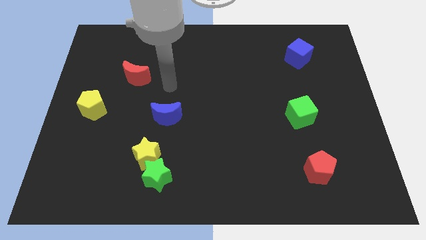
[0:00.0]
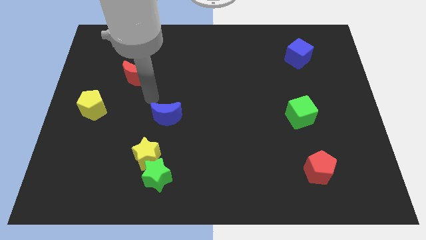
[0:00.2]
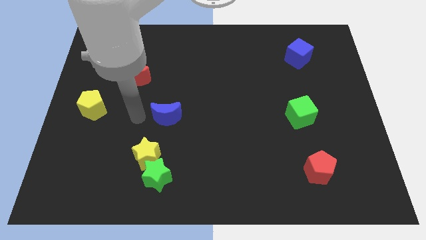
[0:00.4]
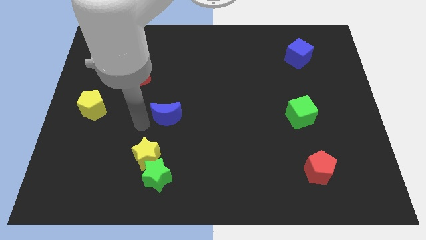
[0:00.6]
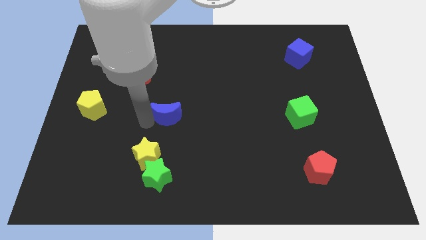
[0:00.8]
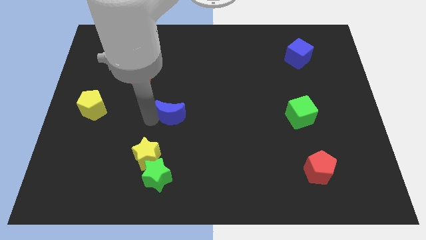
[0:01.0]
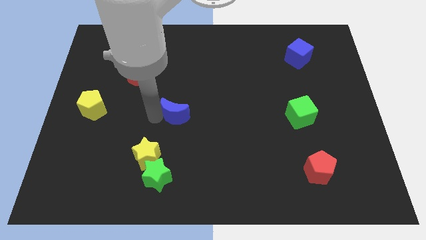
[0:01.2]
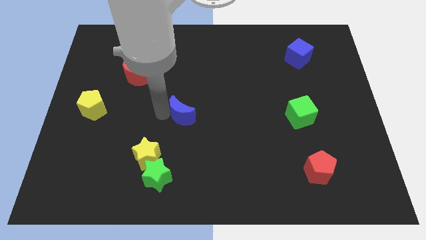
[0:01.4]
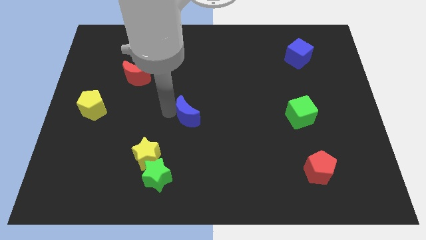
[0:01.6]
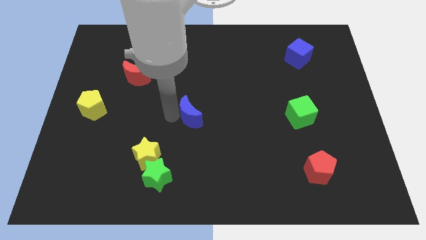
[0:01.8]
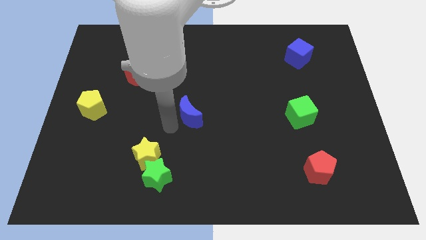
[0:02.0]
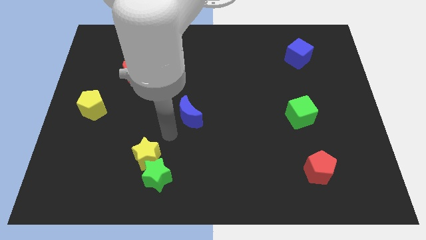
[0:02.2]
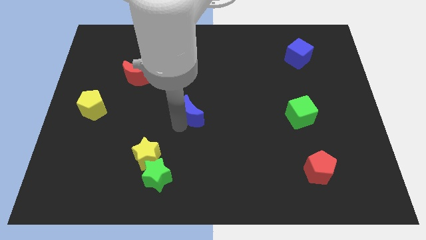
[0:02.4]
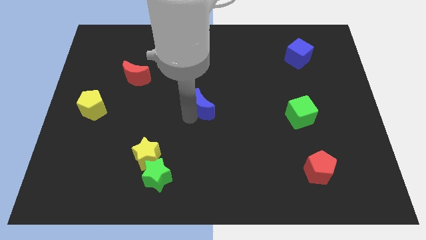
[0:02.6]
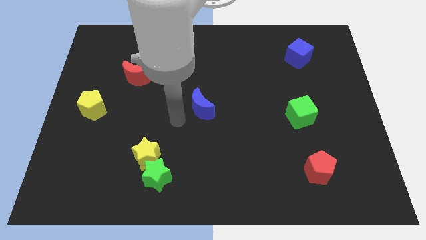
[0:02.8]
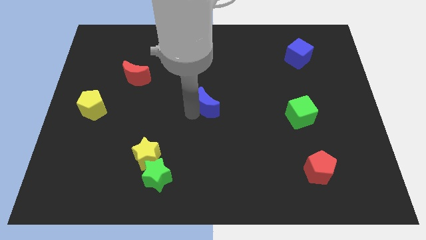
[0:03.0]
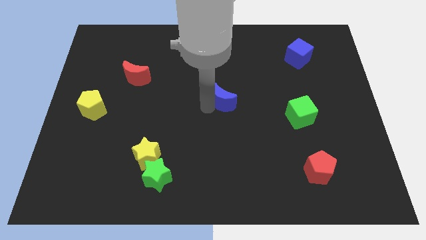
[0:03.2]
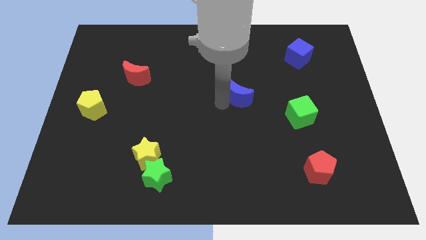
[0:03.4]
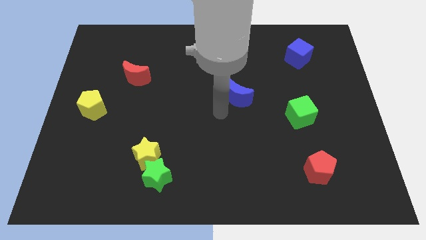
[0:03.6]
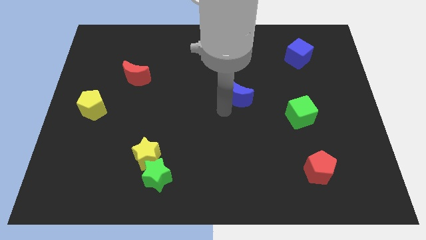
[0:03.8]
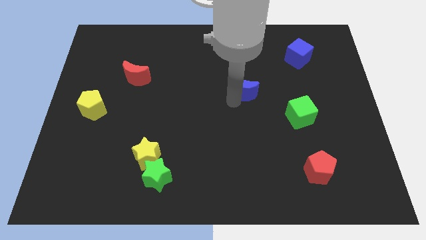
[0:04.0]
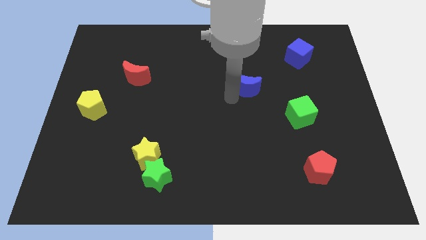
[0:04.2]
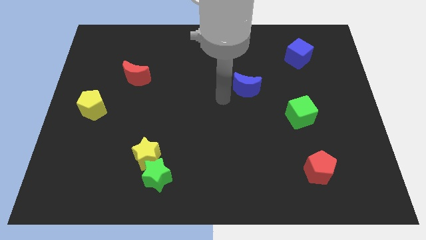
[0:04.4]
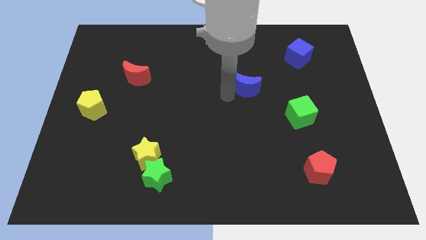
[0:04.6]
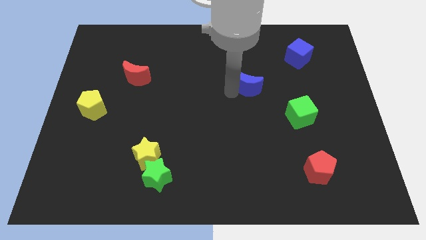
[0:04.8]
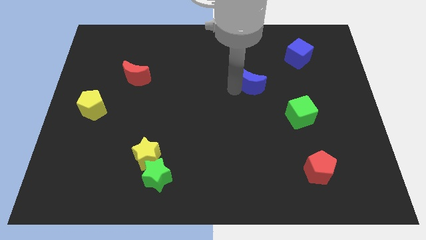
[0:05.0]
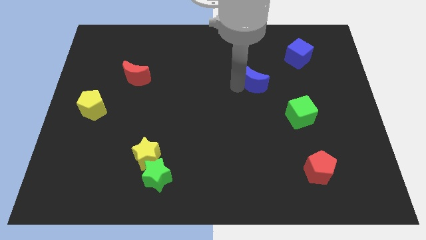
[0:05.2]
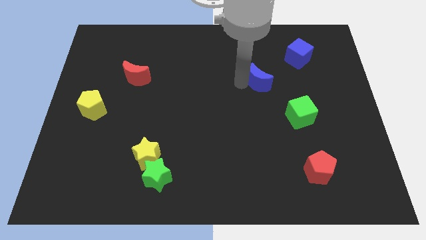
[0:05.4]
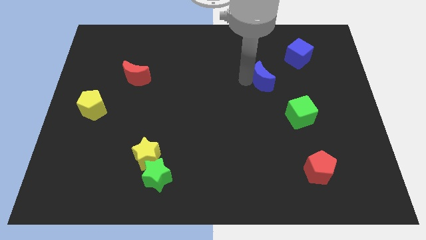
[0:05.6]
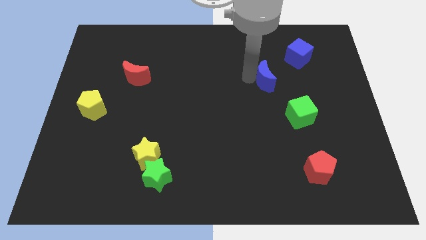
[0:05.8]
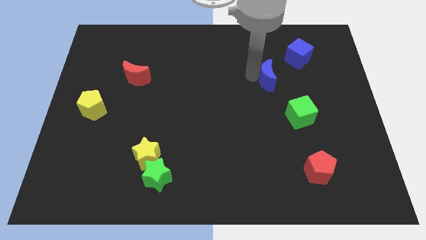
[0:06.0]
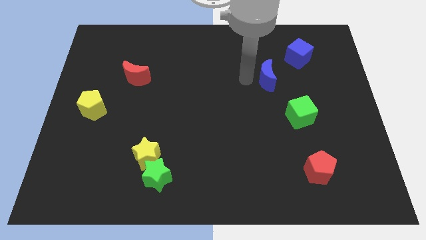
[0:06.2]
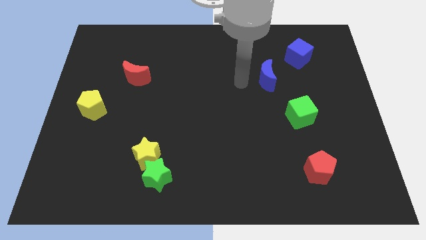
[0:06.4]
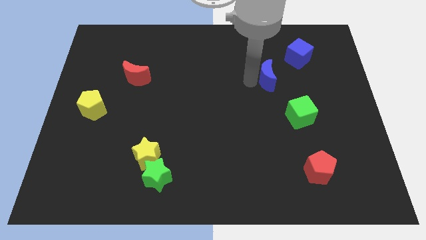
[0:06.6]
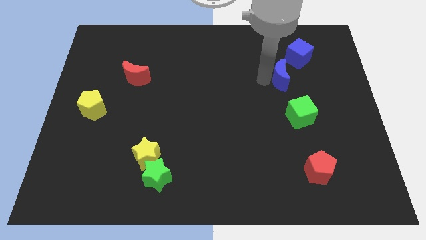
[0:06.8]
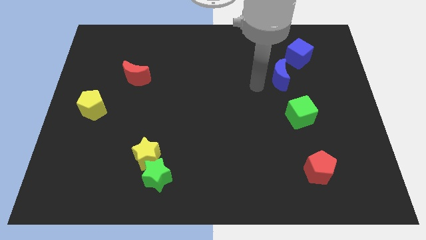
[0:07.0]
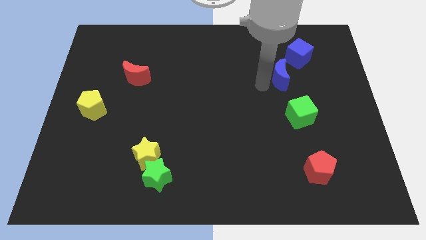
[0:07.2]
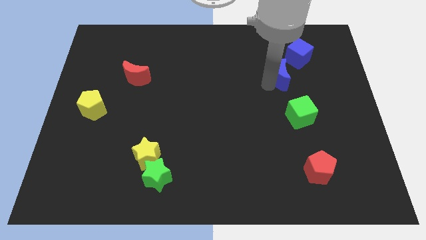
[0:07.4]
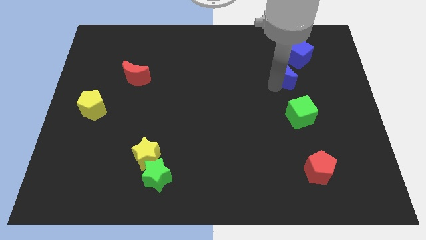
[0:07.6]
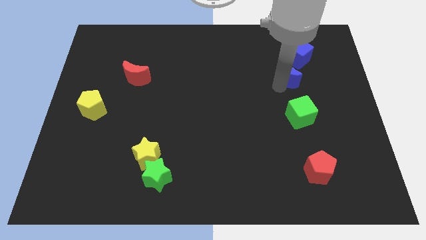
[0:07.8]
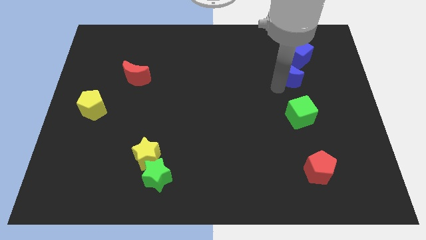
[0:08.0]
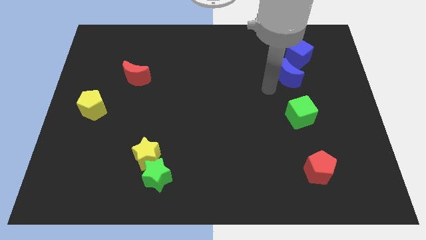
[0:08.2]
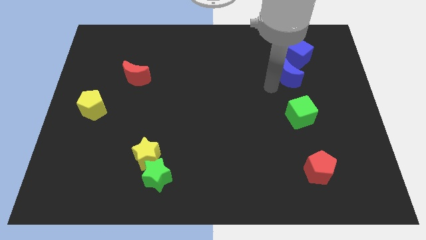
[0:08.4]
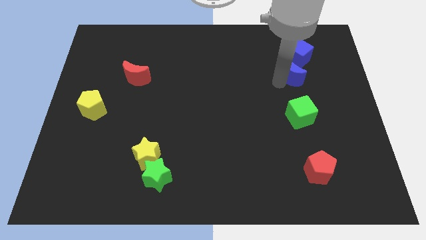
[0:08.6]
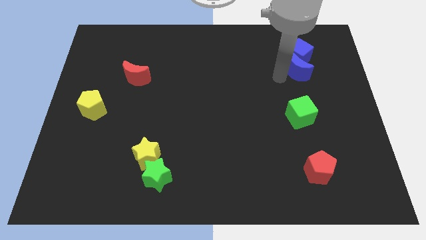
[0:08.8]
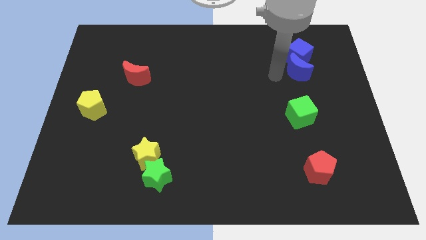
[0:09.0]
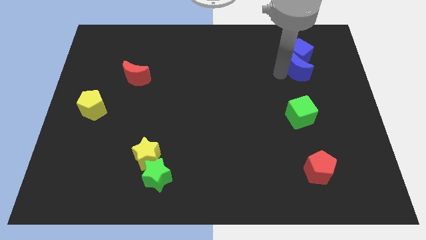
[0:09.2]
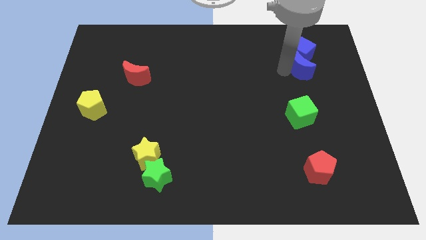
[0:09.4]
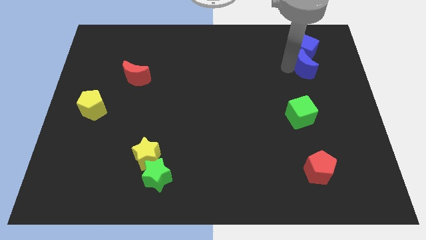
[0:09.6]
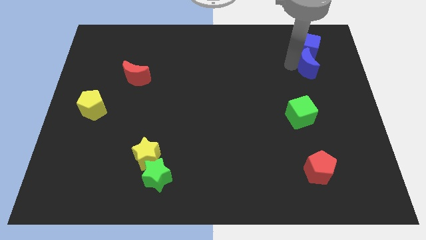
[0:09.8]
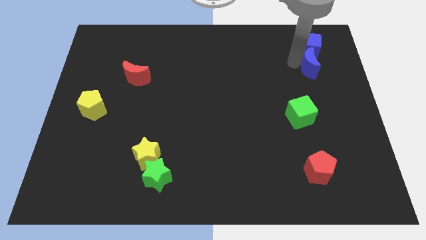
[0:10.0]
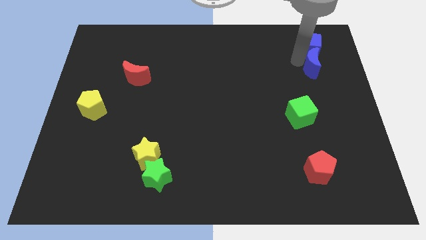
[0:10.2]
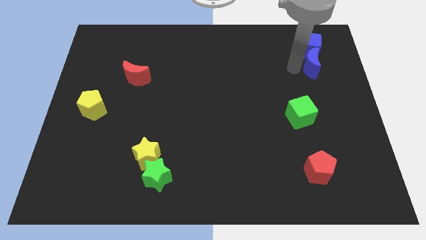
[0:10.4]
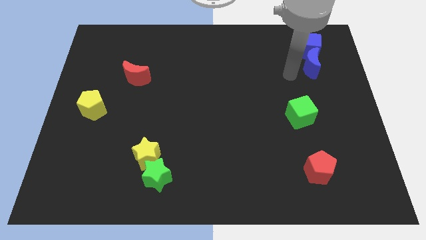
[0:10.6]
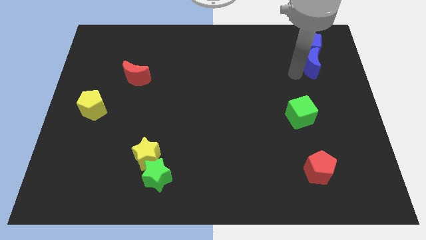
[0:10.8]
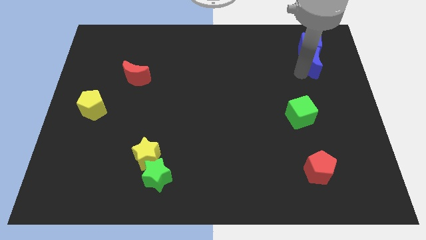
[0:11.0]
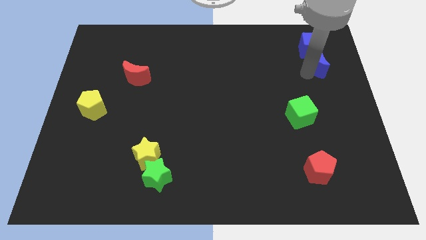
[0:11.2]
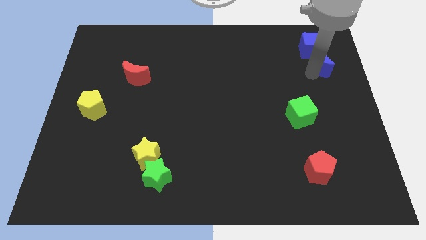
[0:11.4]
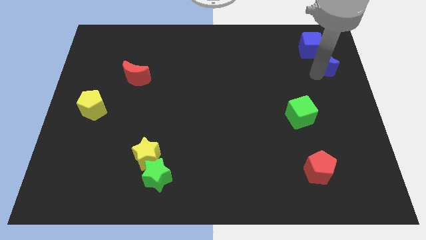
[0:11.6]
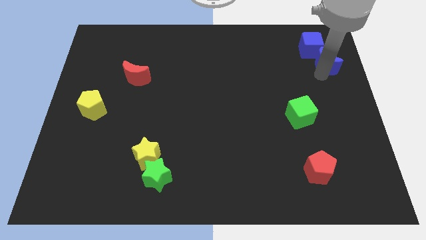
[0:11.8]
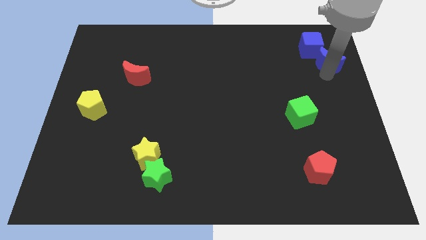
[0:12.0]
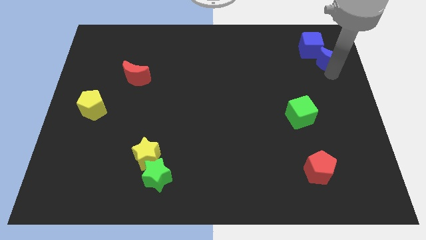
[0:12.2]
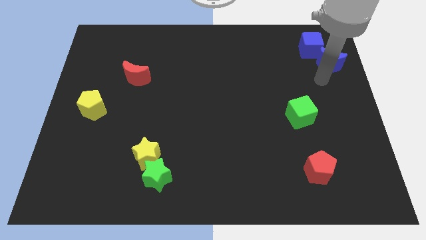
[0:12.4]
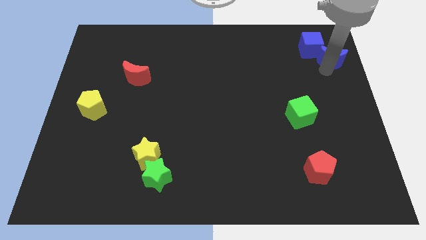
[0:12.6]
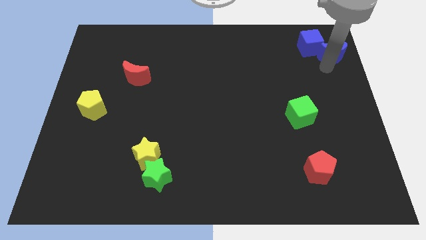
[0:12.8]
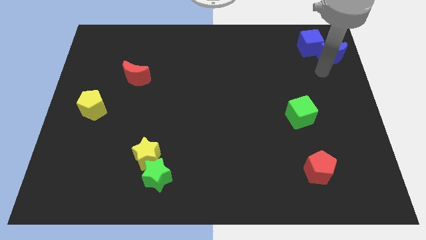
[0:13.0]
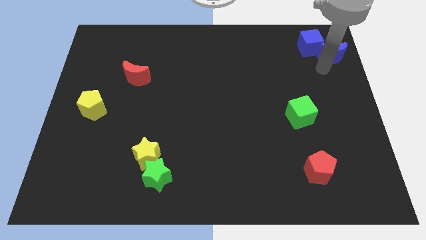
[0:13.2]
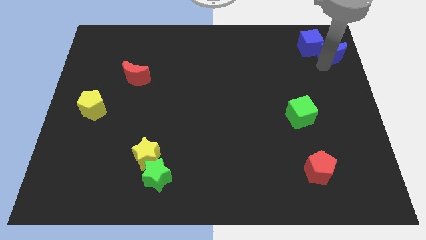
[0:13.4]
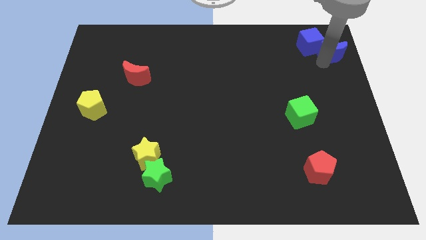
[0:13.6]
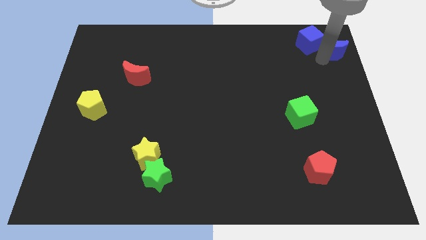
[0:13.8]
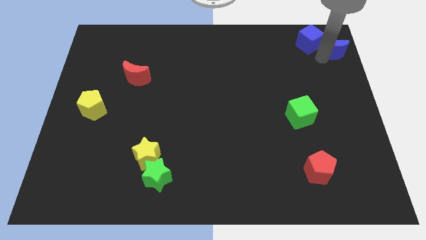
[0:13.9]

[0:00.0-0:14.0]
put the blue moon to the top right corner
